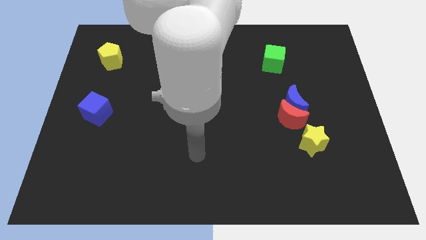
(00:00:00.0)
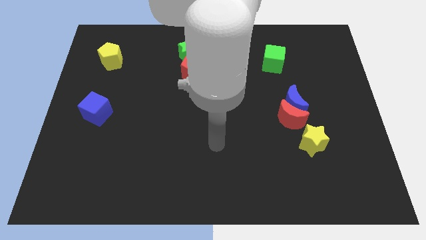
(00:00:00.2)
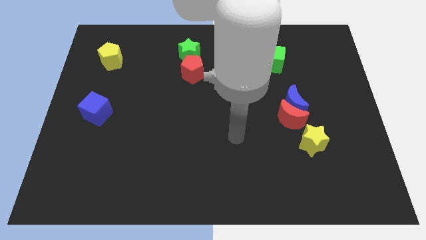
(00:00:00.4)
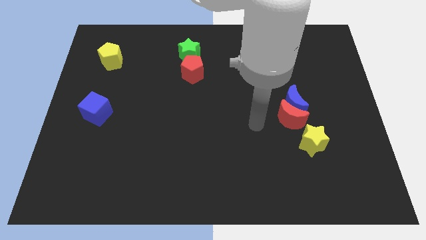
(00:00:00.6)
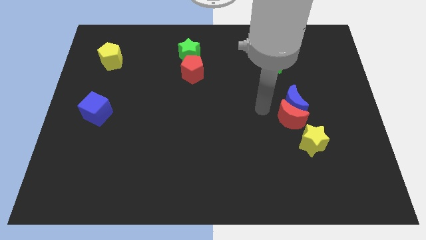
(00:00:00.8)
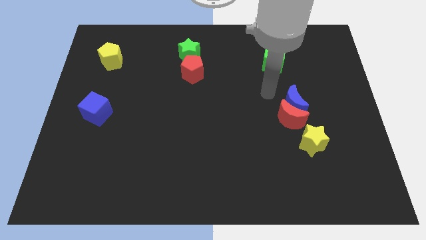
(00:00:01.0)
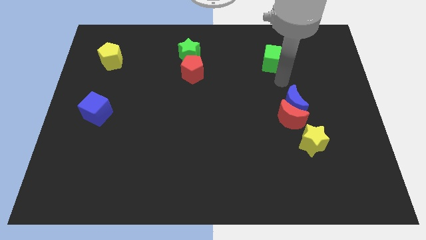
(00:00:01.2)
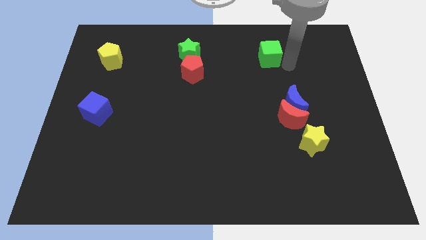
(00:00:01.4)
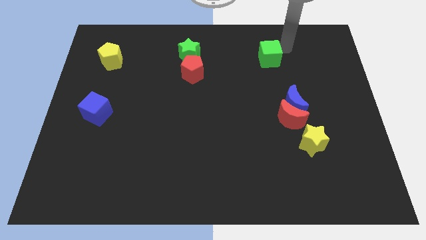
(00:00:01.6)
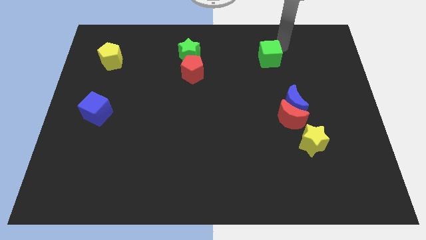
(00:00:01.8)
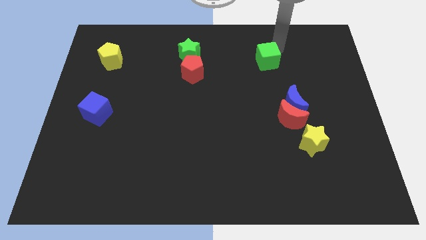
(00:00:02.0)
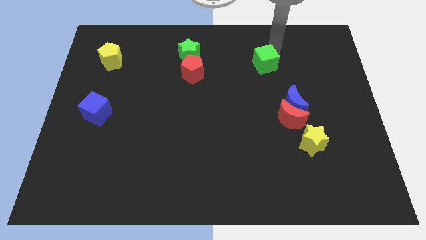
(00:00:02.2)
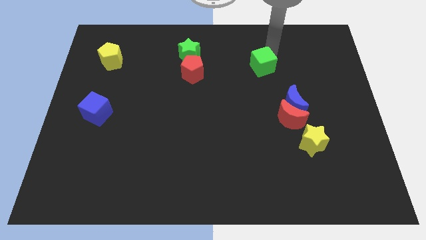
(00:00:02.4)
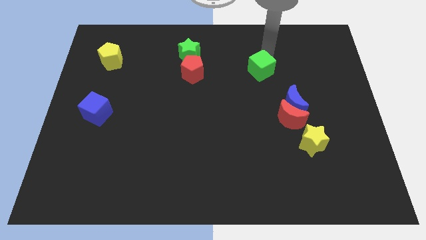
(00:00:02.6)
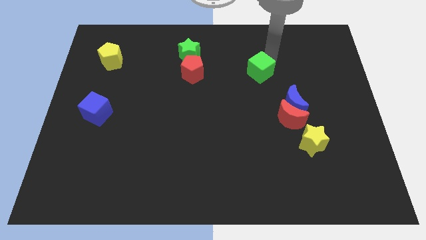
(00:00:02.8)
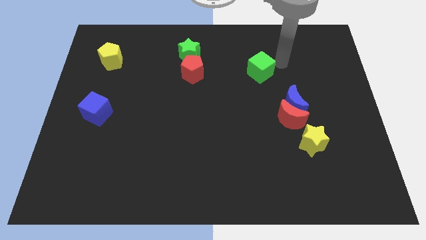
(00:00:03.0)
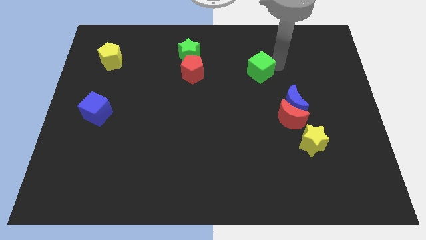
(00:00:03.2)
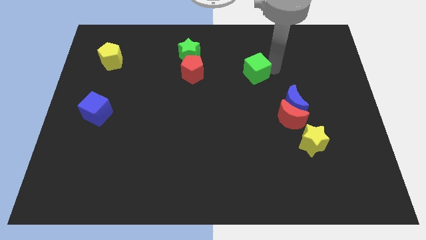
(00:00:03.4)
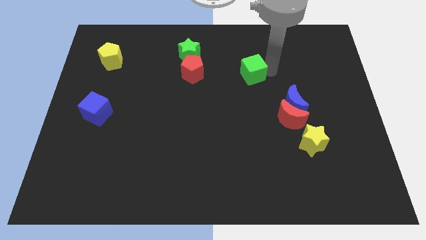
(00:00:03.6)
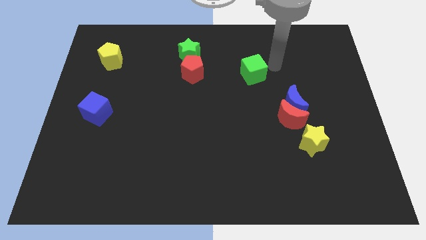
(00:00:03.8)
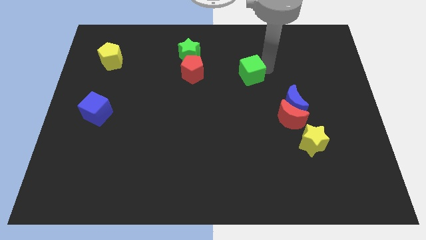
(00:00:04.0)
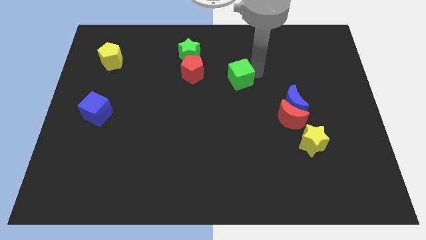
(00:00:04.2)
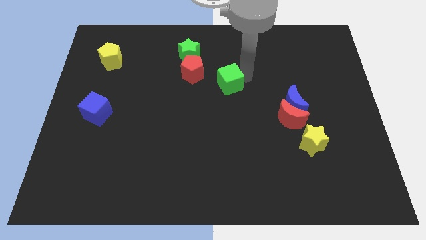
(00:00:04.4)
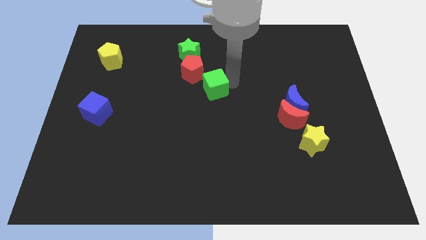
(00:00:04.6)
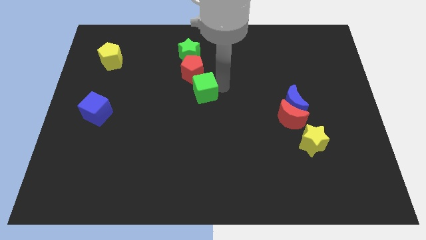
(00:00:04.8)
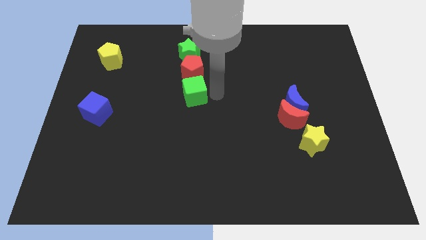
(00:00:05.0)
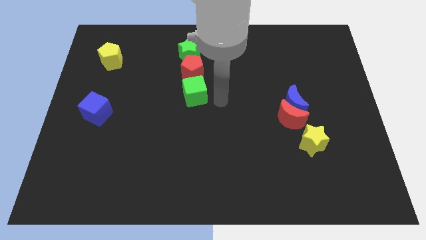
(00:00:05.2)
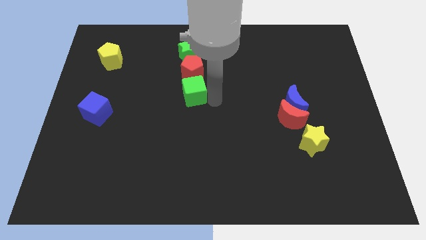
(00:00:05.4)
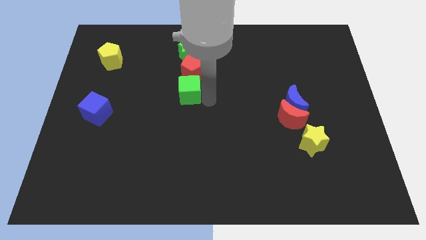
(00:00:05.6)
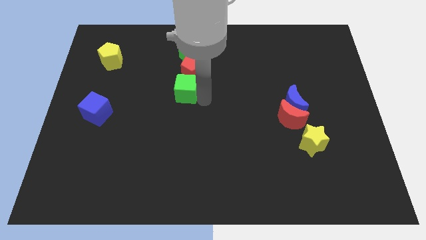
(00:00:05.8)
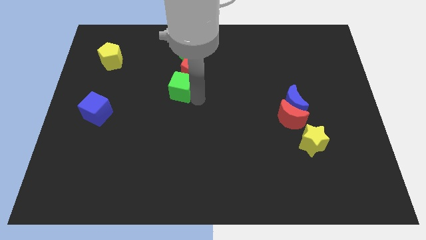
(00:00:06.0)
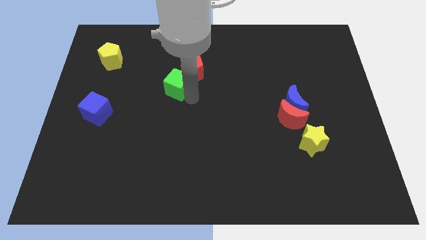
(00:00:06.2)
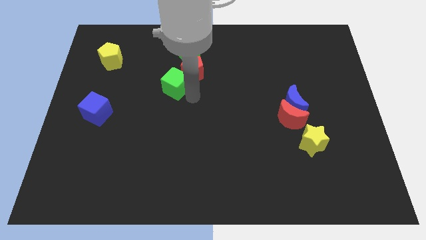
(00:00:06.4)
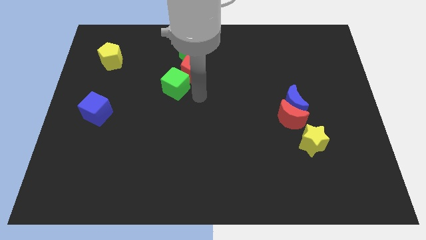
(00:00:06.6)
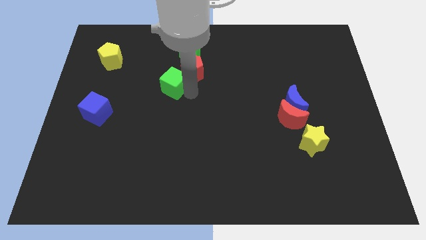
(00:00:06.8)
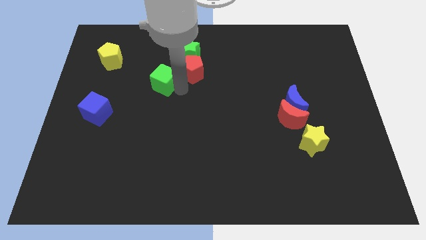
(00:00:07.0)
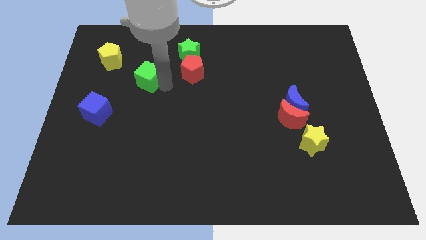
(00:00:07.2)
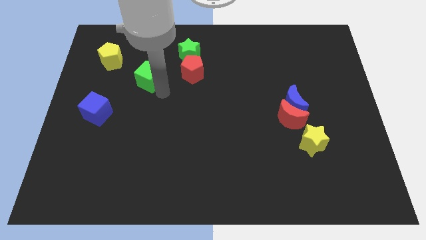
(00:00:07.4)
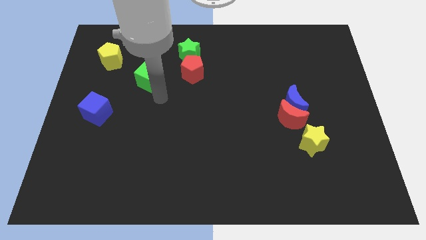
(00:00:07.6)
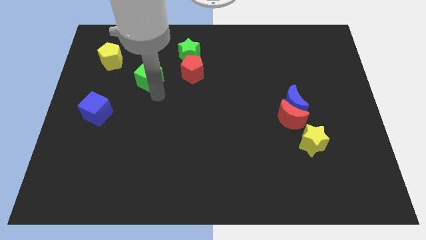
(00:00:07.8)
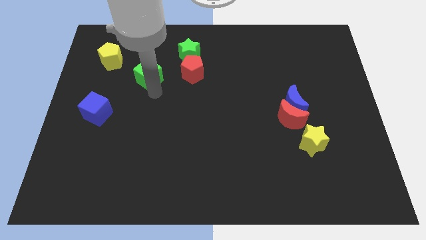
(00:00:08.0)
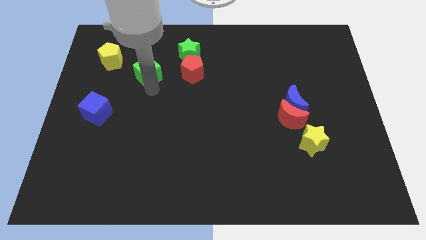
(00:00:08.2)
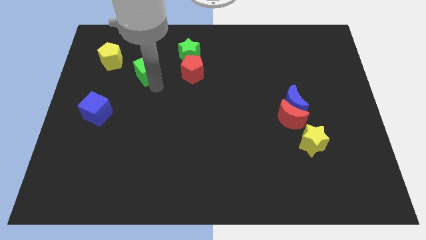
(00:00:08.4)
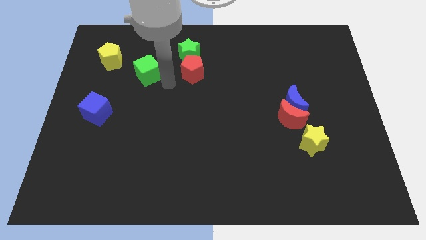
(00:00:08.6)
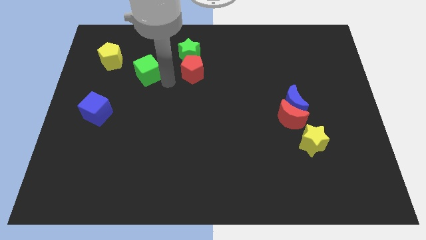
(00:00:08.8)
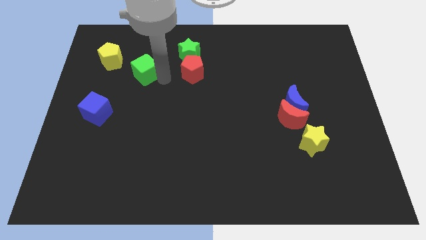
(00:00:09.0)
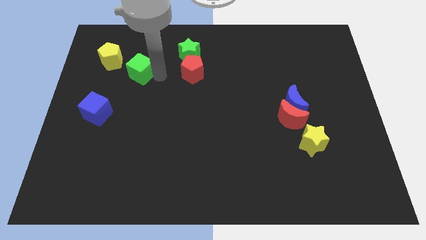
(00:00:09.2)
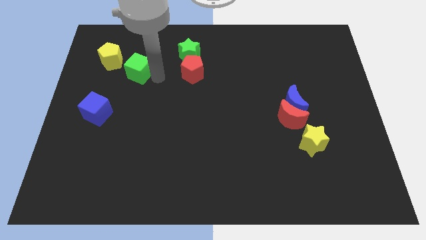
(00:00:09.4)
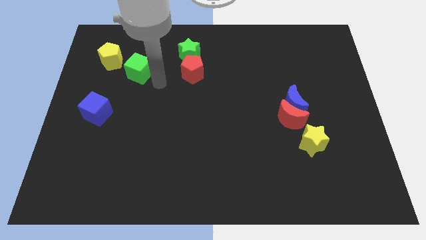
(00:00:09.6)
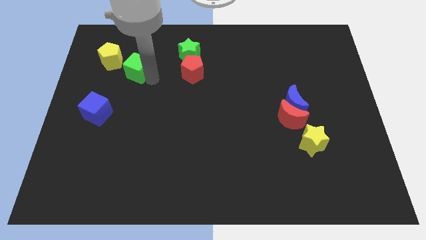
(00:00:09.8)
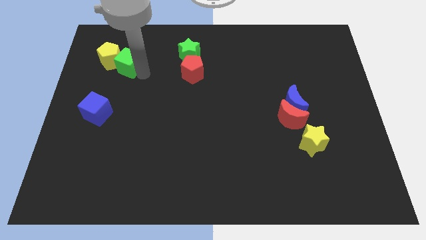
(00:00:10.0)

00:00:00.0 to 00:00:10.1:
slide the green cube towards the yellow pentagon

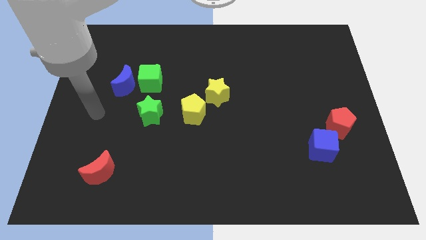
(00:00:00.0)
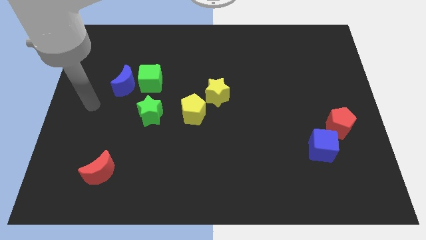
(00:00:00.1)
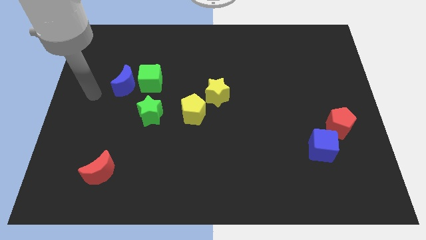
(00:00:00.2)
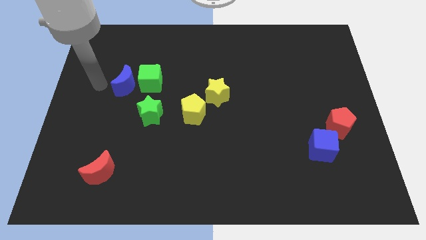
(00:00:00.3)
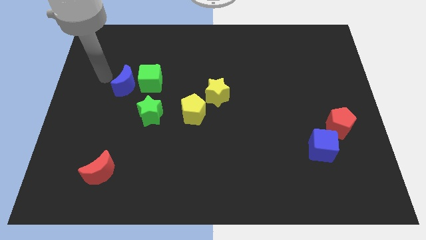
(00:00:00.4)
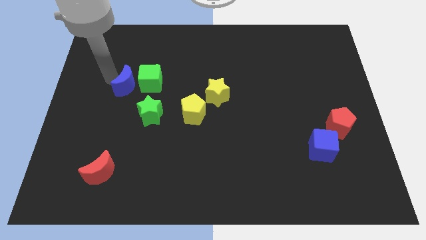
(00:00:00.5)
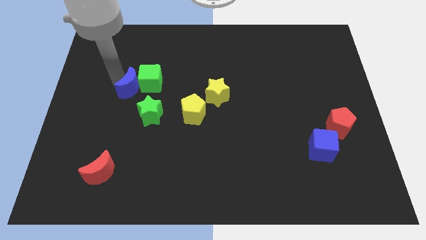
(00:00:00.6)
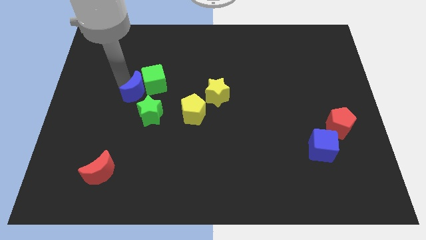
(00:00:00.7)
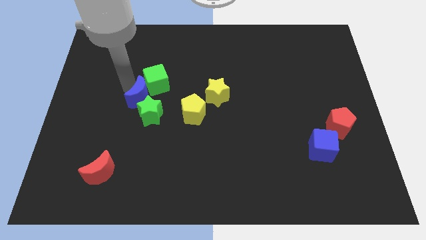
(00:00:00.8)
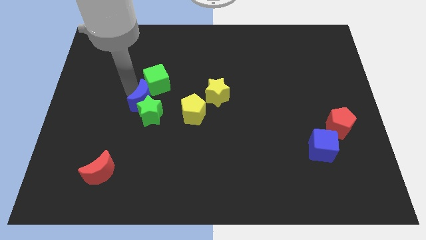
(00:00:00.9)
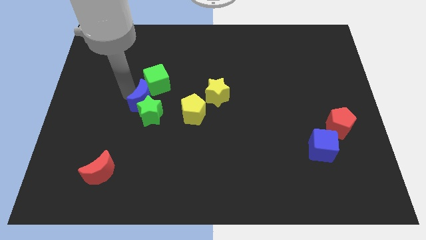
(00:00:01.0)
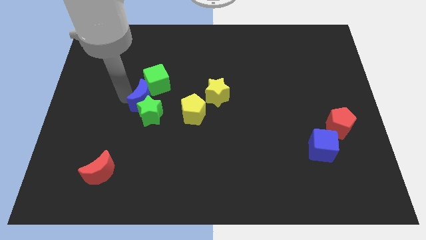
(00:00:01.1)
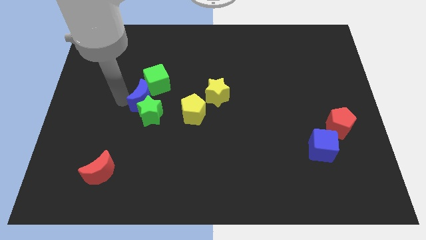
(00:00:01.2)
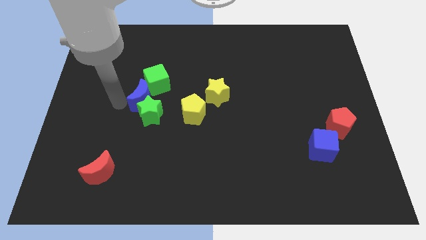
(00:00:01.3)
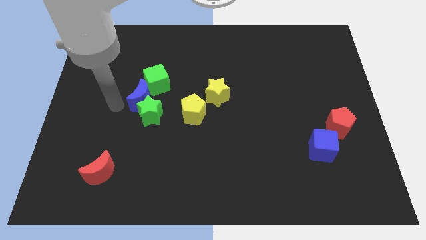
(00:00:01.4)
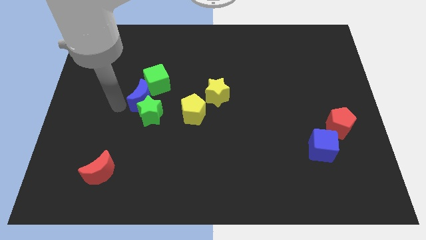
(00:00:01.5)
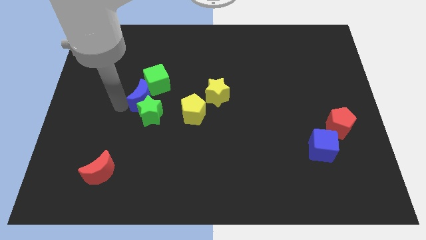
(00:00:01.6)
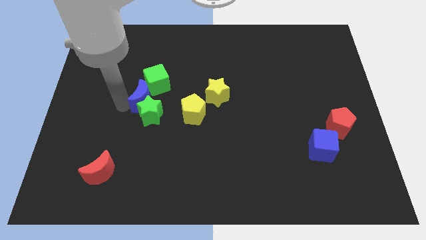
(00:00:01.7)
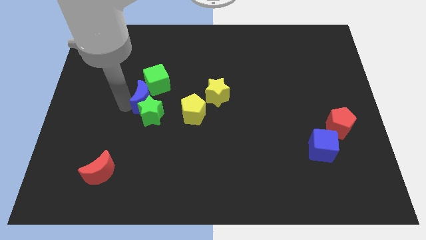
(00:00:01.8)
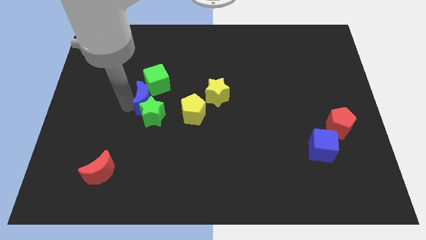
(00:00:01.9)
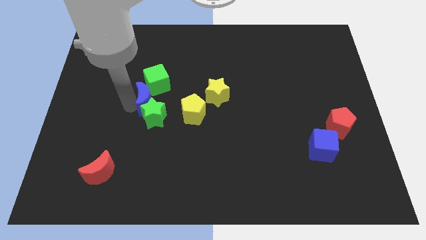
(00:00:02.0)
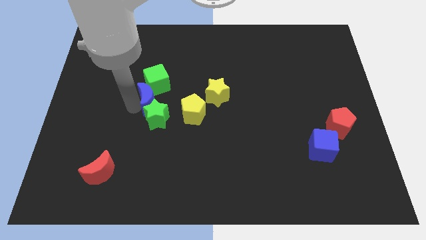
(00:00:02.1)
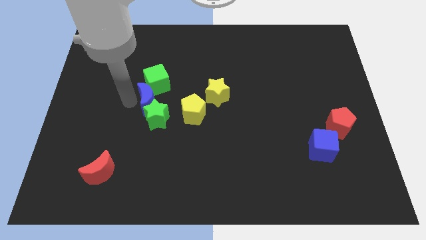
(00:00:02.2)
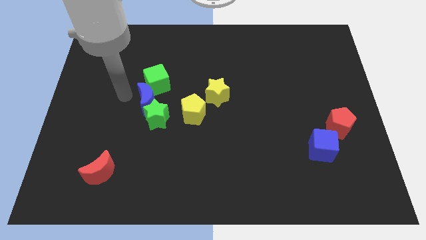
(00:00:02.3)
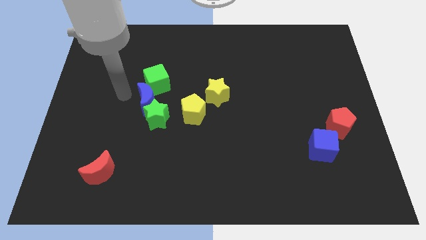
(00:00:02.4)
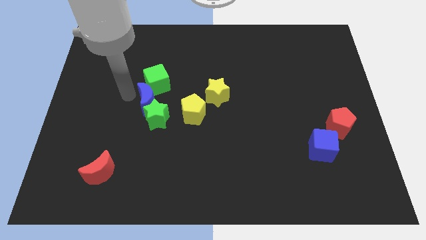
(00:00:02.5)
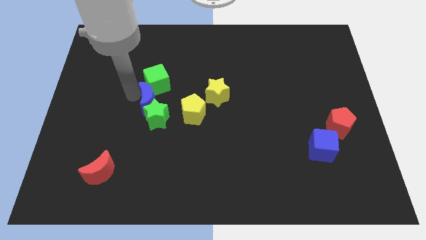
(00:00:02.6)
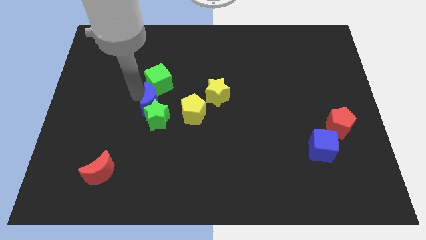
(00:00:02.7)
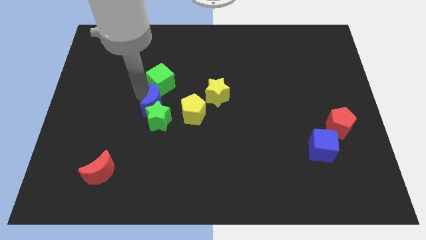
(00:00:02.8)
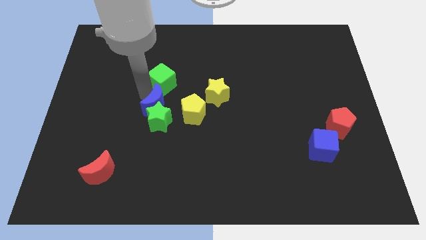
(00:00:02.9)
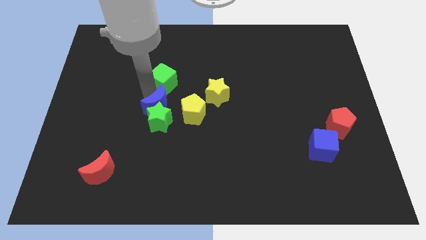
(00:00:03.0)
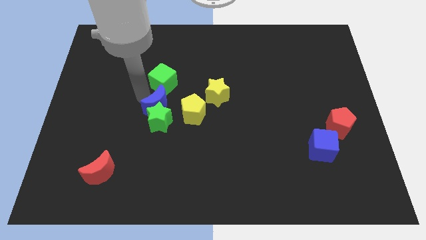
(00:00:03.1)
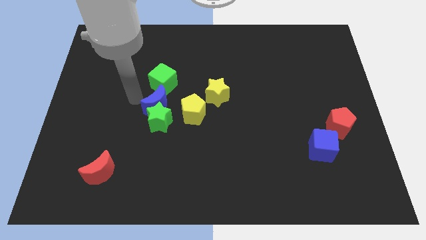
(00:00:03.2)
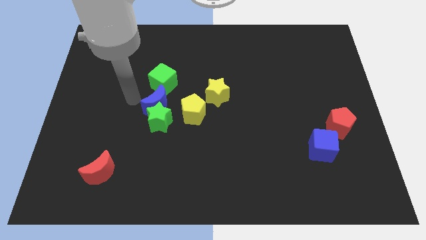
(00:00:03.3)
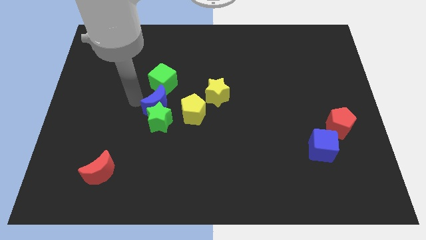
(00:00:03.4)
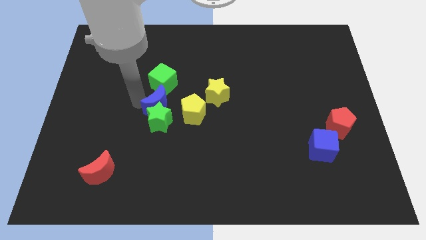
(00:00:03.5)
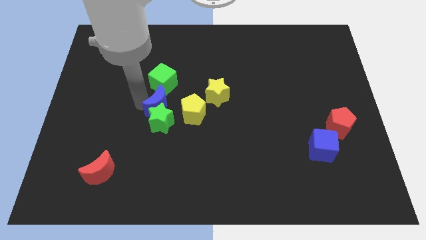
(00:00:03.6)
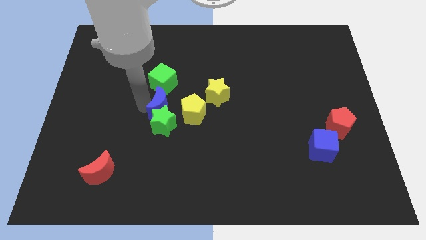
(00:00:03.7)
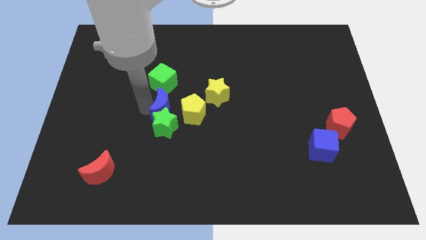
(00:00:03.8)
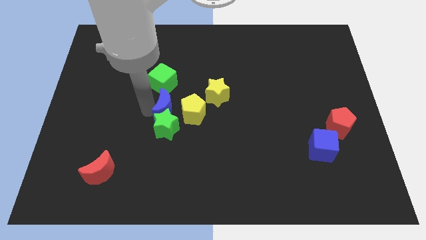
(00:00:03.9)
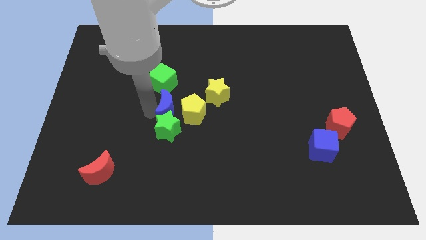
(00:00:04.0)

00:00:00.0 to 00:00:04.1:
slide the blue moon next to the yellow pentagon
